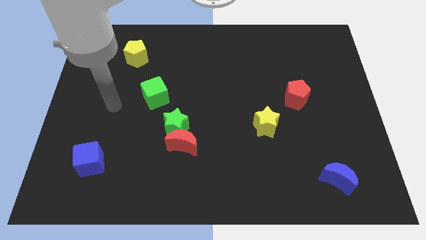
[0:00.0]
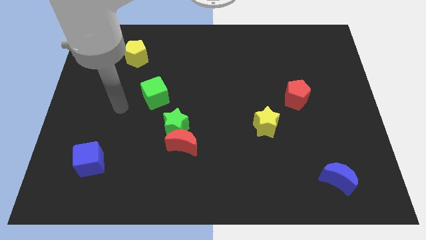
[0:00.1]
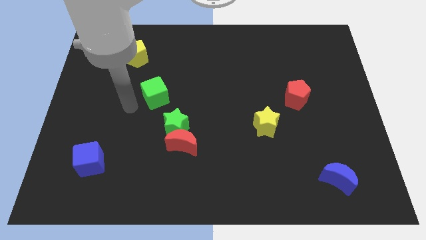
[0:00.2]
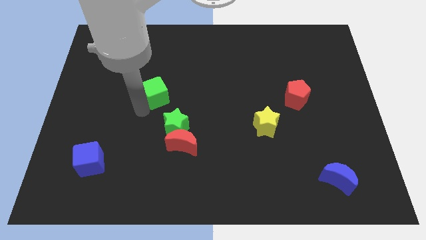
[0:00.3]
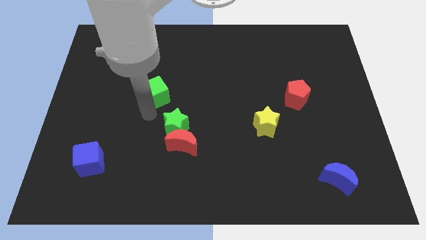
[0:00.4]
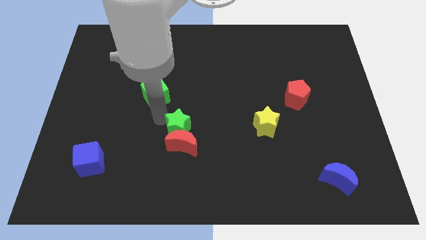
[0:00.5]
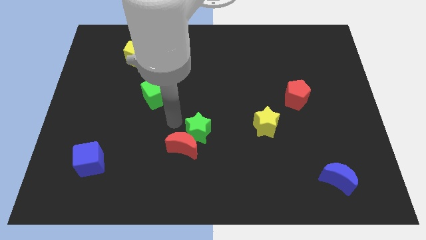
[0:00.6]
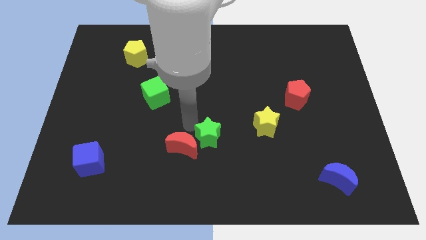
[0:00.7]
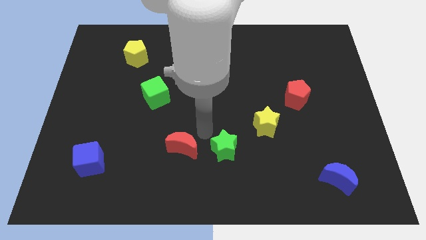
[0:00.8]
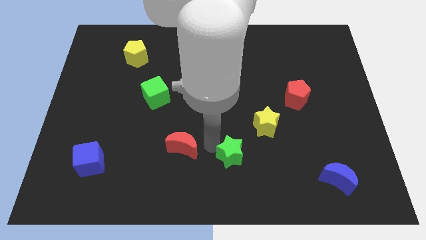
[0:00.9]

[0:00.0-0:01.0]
pull the red moon apart from the green star

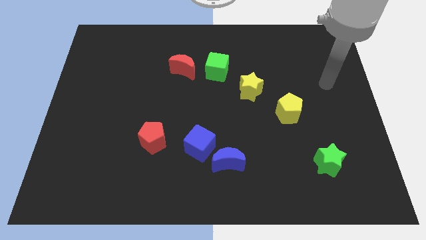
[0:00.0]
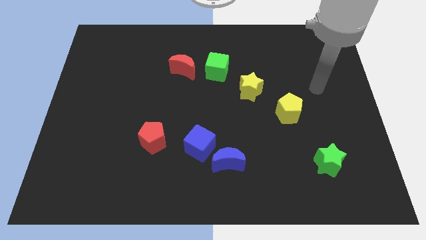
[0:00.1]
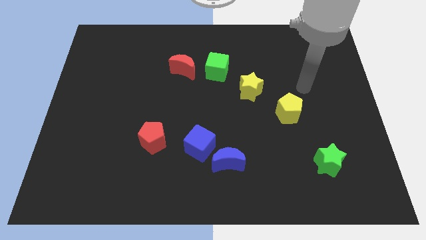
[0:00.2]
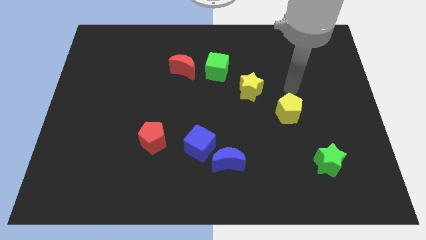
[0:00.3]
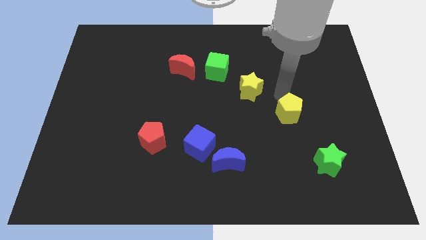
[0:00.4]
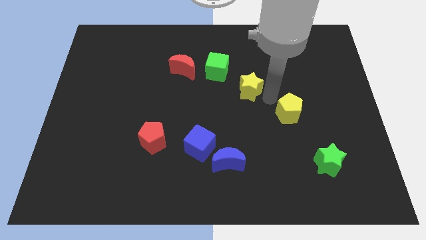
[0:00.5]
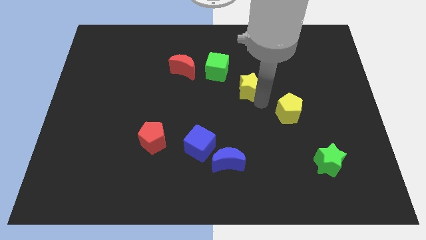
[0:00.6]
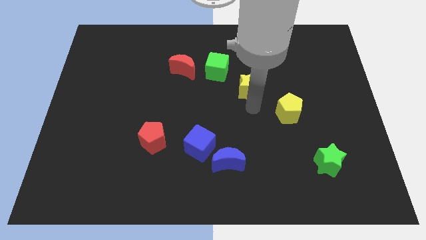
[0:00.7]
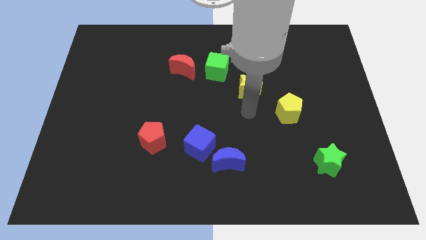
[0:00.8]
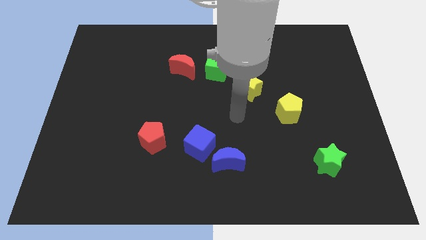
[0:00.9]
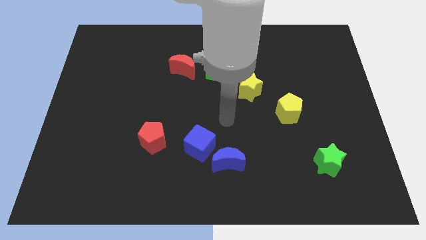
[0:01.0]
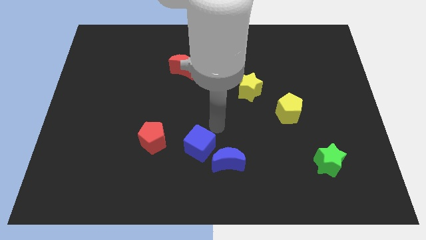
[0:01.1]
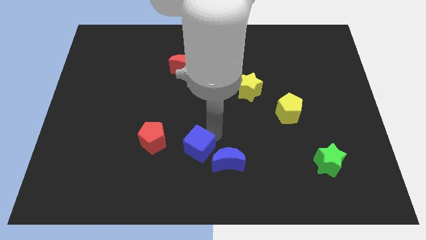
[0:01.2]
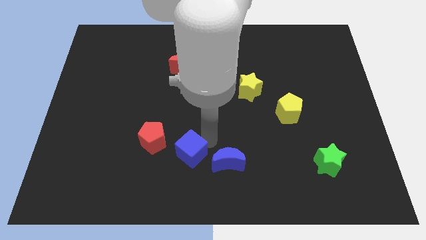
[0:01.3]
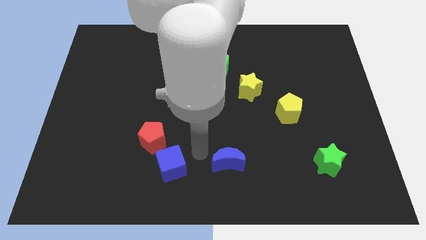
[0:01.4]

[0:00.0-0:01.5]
separate the blue moon from the blue cube

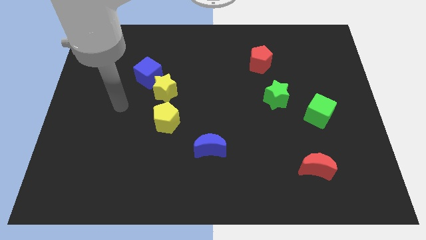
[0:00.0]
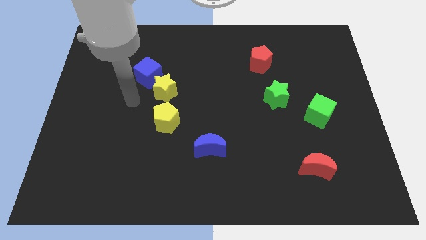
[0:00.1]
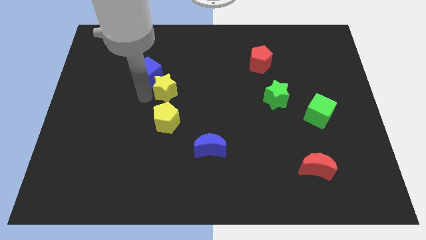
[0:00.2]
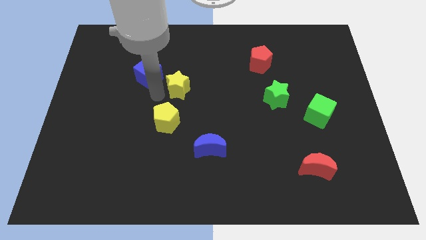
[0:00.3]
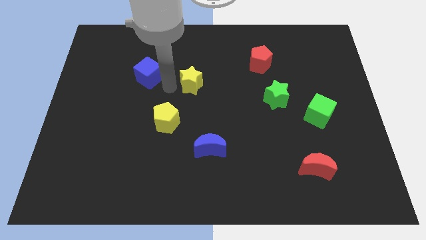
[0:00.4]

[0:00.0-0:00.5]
move the blue cube away from the yellow star

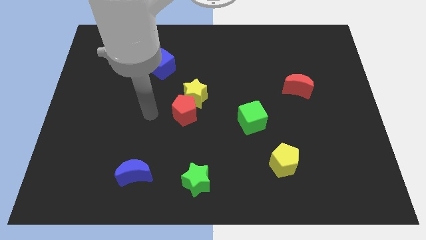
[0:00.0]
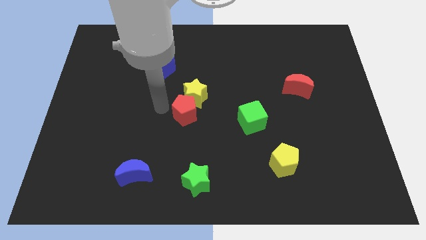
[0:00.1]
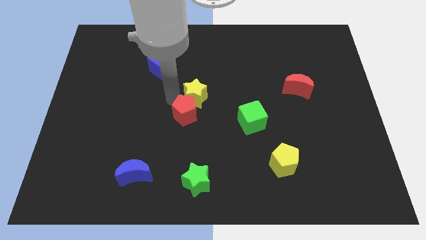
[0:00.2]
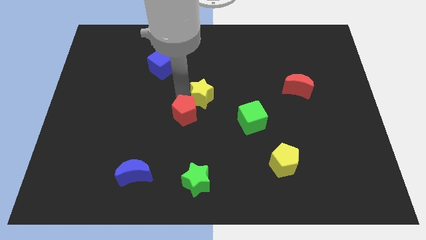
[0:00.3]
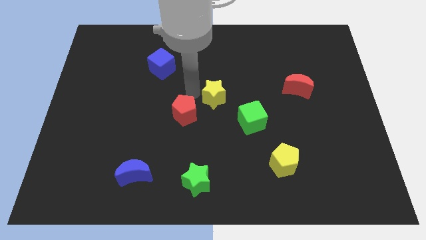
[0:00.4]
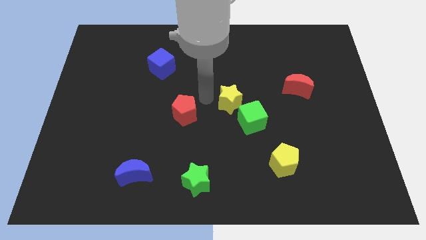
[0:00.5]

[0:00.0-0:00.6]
pull the red pentagon apart from the yellow star

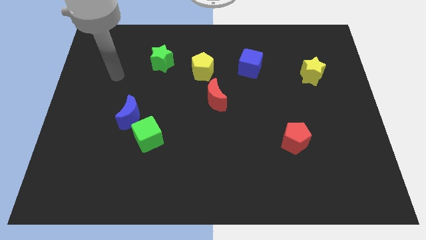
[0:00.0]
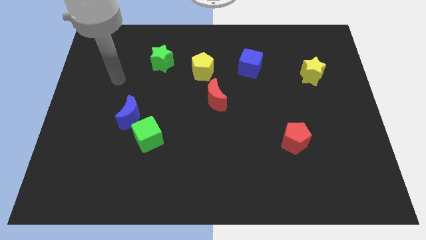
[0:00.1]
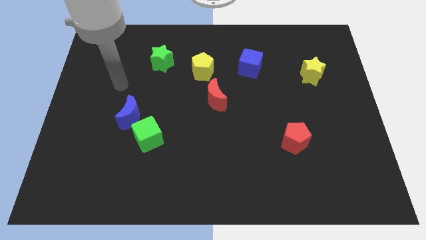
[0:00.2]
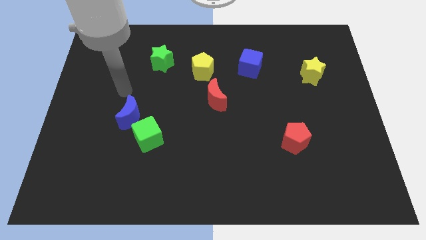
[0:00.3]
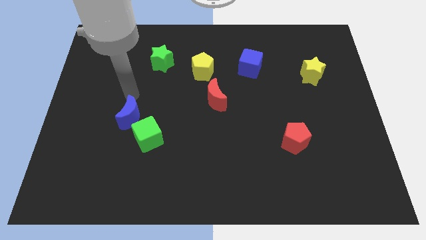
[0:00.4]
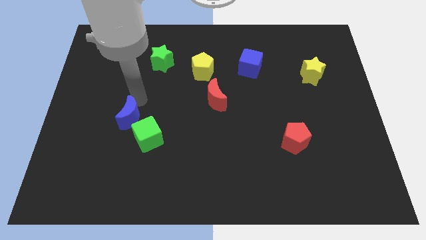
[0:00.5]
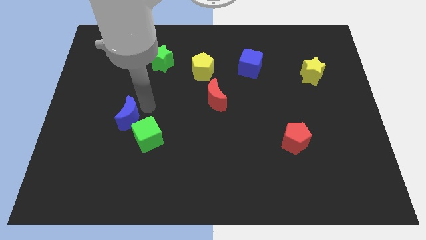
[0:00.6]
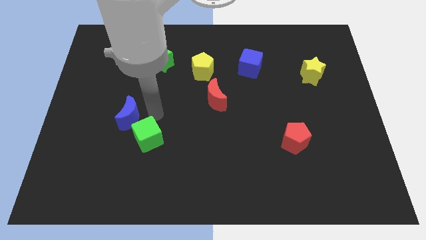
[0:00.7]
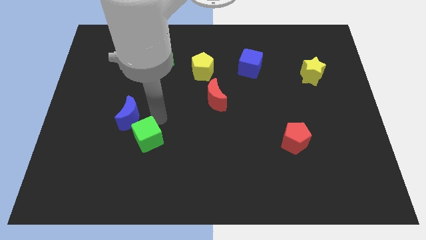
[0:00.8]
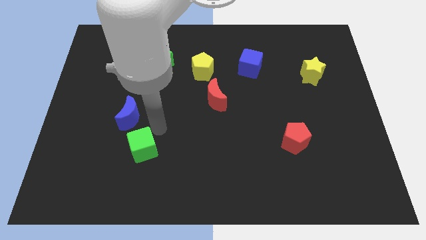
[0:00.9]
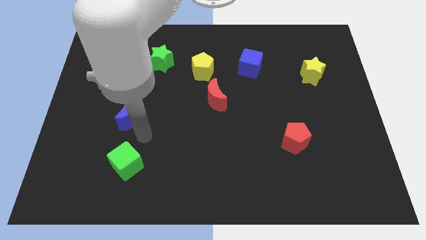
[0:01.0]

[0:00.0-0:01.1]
pull the blue moon apart from the green cube

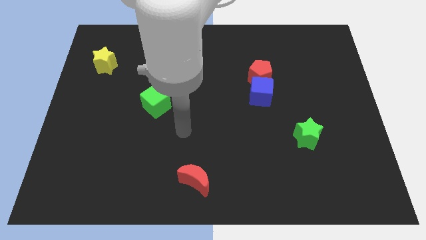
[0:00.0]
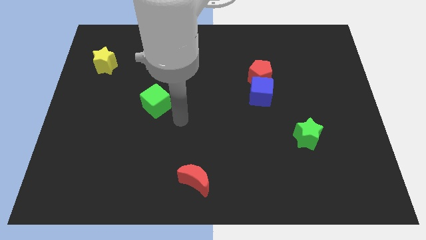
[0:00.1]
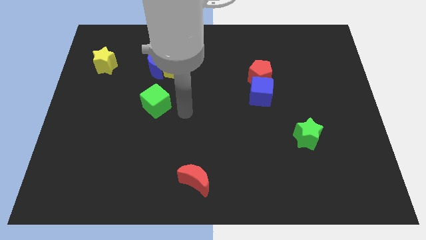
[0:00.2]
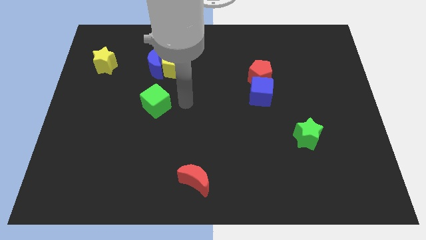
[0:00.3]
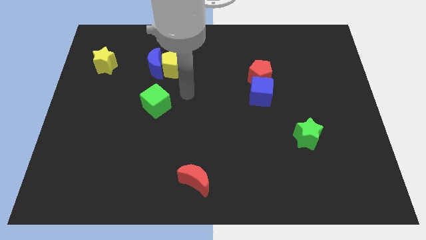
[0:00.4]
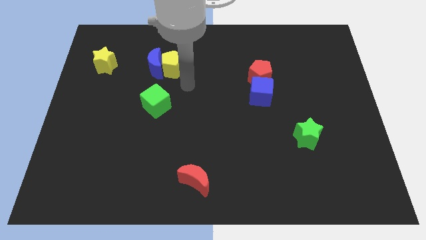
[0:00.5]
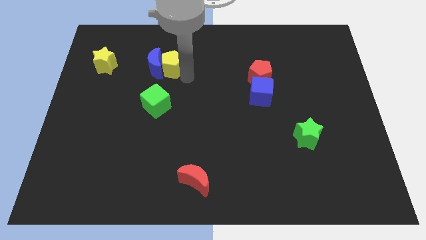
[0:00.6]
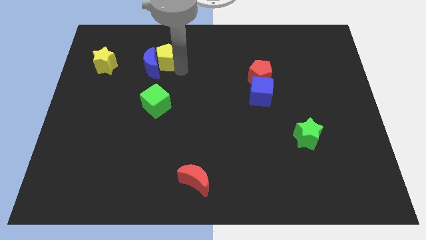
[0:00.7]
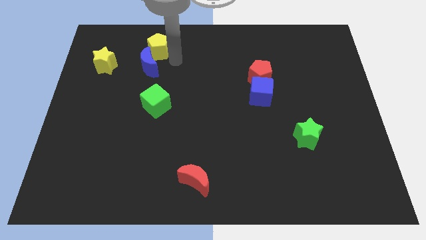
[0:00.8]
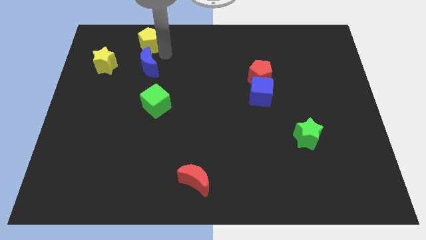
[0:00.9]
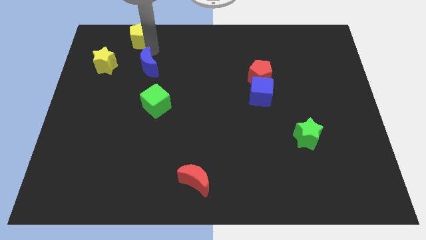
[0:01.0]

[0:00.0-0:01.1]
pull the blue moon apart from the yellow pentagon

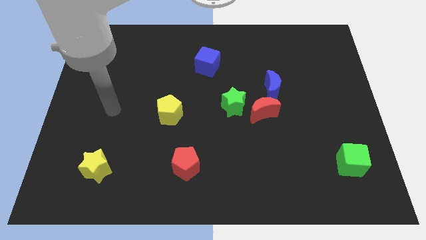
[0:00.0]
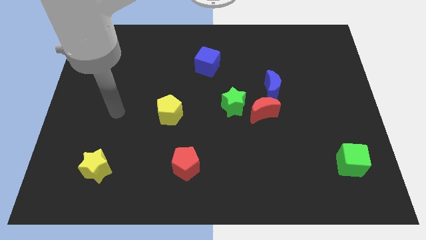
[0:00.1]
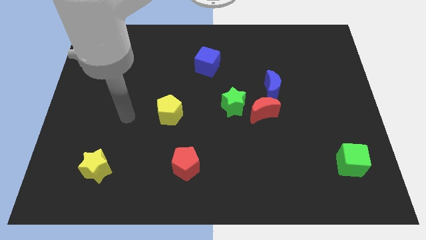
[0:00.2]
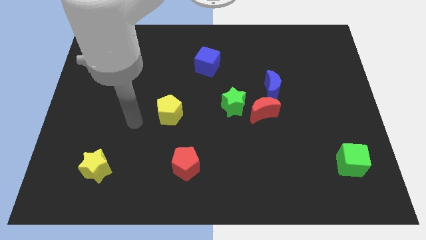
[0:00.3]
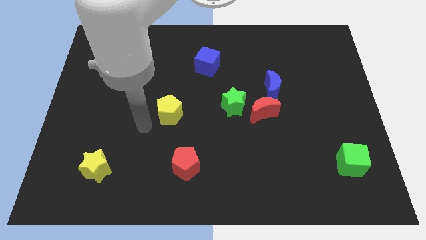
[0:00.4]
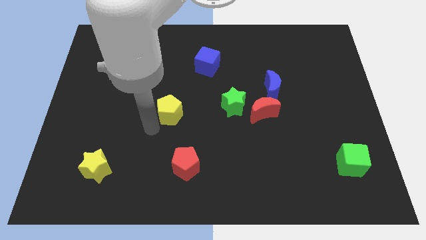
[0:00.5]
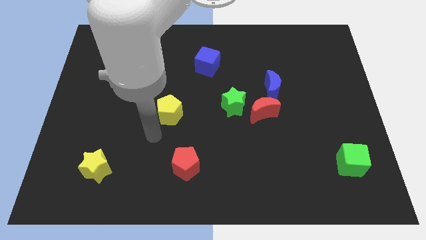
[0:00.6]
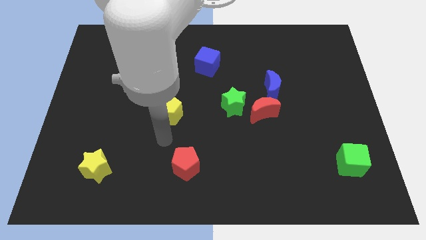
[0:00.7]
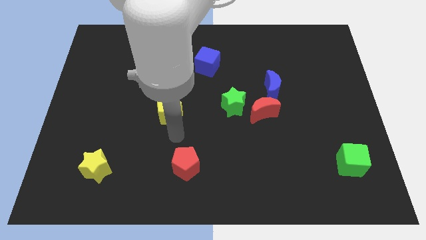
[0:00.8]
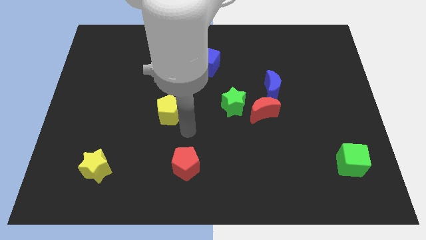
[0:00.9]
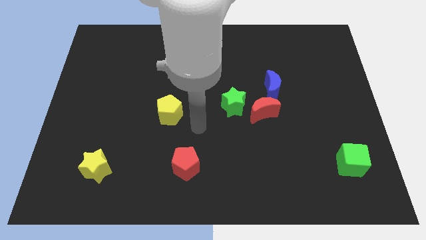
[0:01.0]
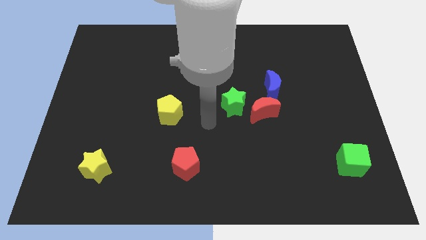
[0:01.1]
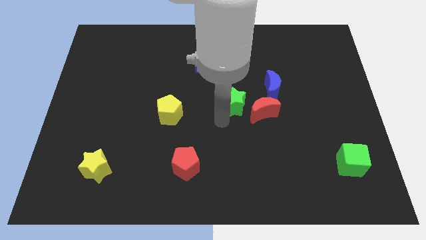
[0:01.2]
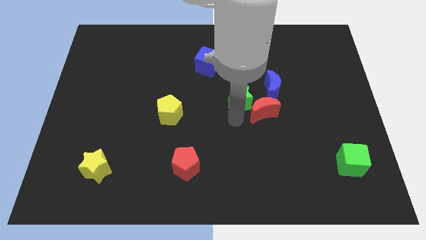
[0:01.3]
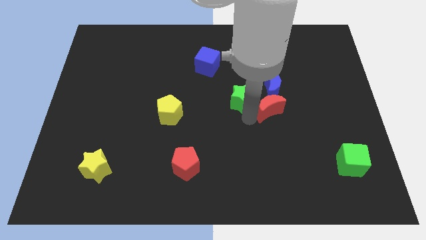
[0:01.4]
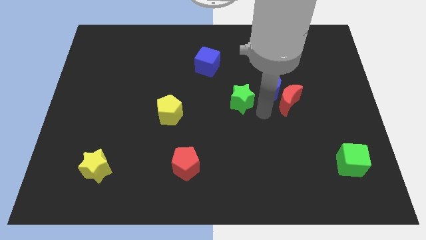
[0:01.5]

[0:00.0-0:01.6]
pull the green star apart from the red moon

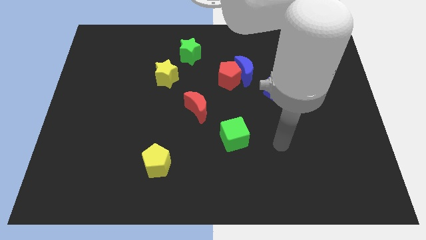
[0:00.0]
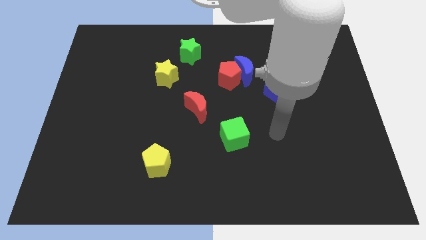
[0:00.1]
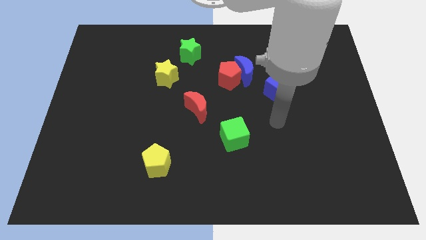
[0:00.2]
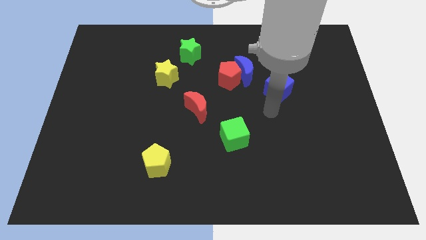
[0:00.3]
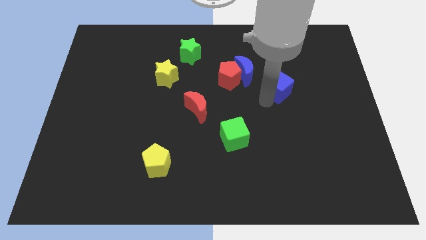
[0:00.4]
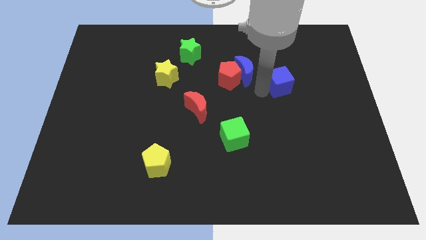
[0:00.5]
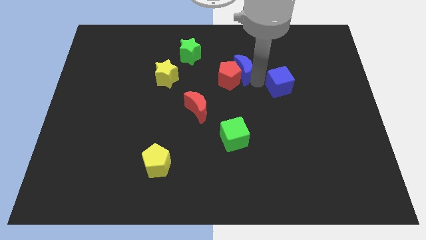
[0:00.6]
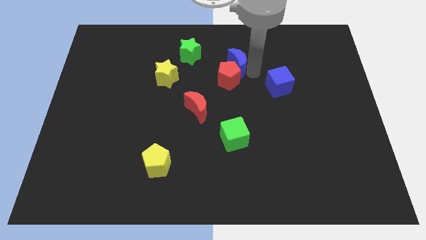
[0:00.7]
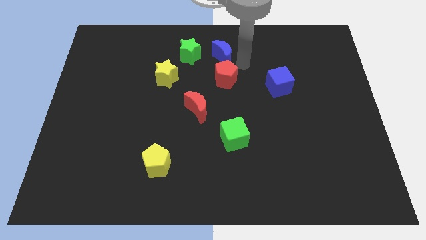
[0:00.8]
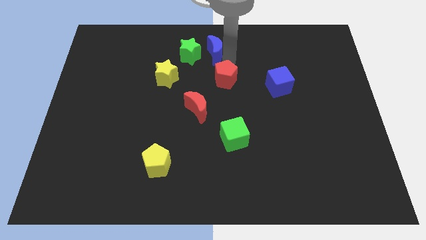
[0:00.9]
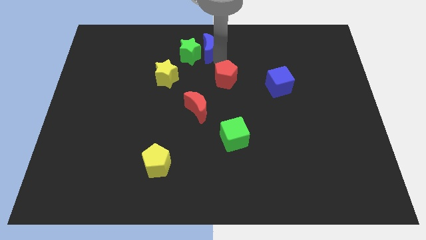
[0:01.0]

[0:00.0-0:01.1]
separate the red pentagon from the blue moon

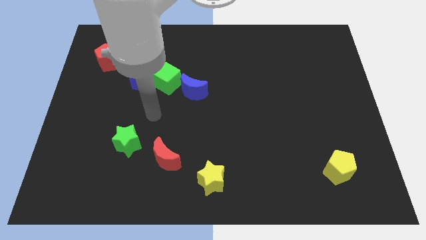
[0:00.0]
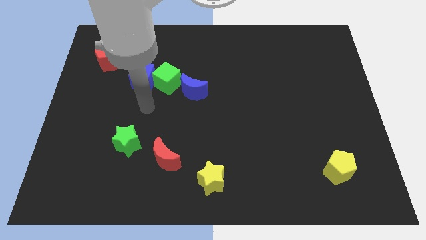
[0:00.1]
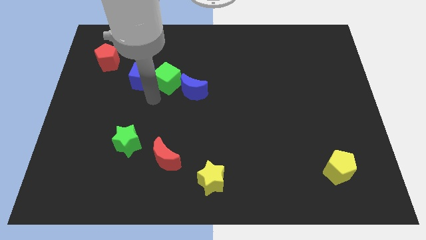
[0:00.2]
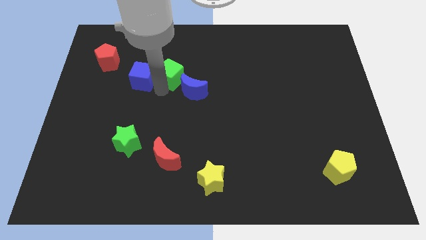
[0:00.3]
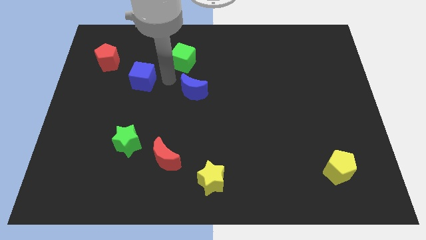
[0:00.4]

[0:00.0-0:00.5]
move the blue cube away from the green cube

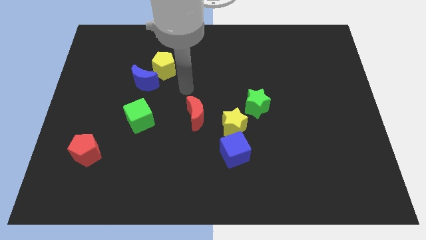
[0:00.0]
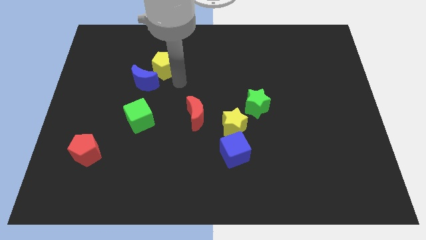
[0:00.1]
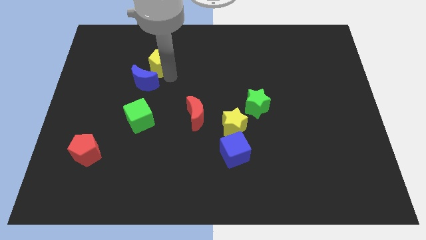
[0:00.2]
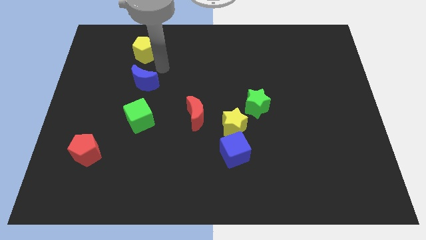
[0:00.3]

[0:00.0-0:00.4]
separate the blue moon from the yellow pentagon

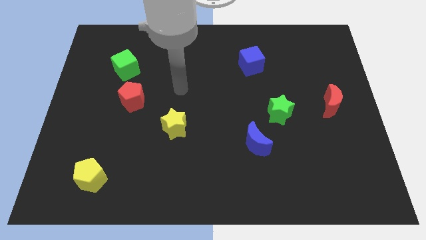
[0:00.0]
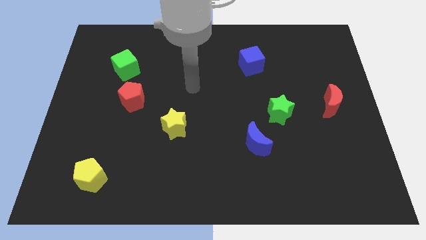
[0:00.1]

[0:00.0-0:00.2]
move the blue moon away from the green star
